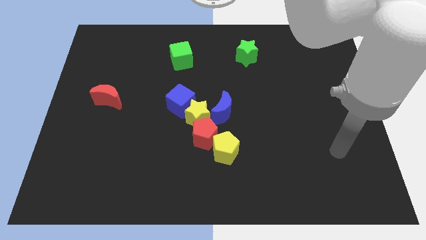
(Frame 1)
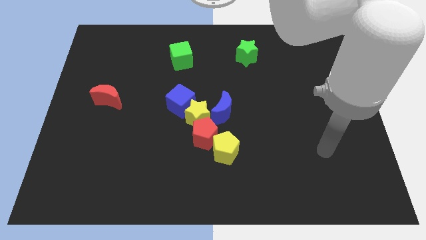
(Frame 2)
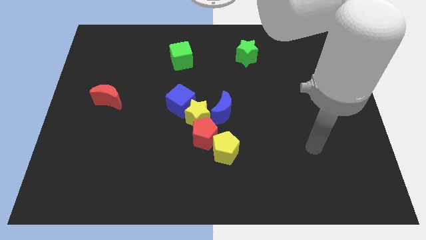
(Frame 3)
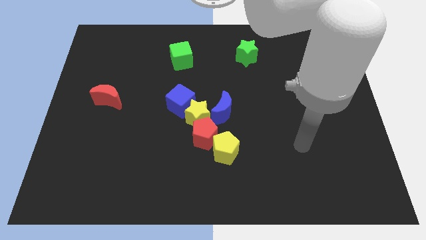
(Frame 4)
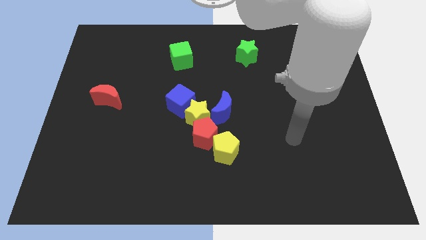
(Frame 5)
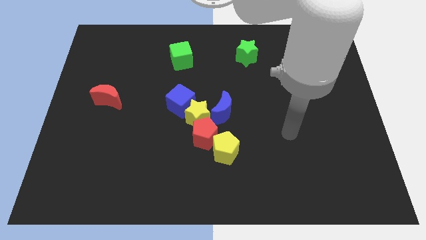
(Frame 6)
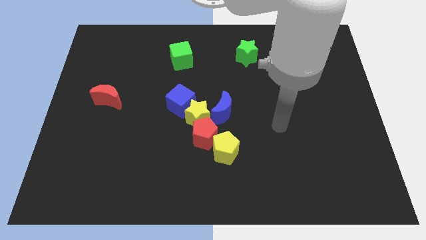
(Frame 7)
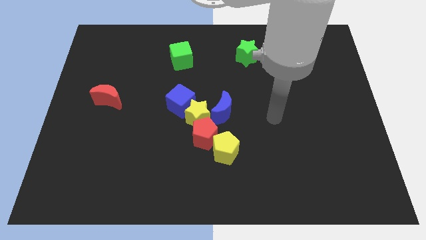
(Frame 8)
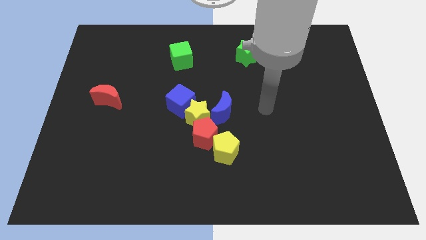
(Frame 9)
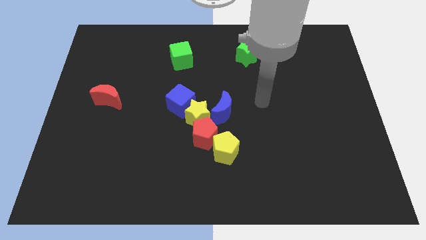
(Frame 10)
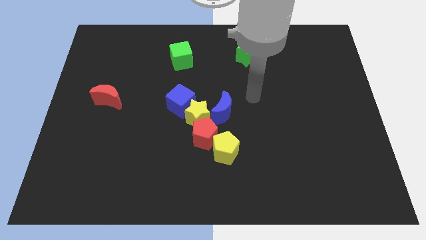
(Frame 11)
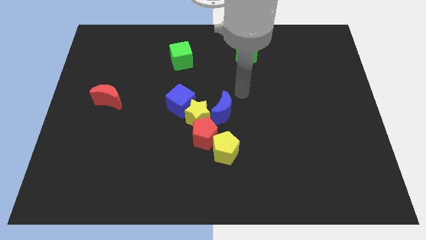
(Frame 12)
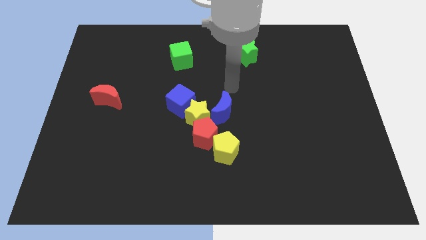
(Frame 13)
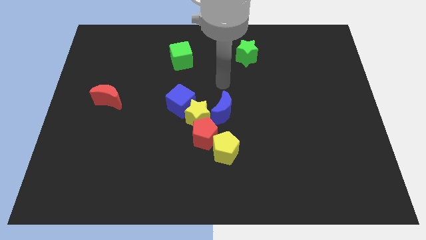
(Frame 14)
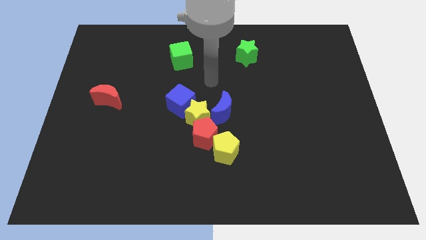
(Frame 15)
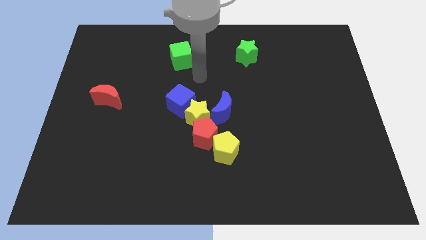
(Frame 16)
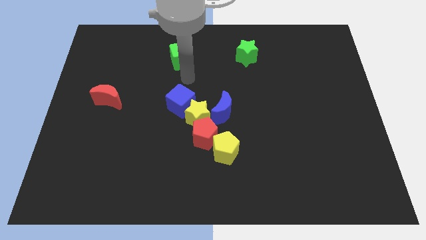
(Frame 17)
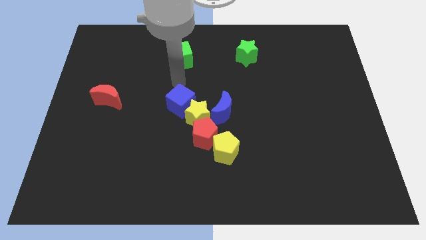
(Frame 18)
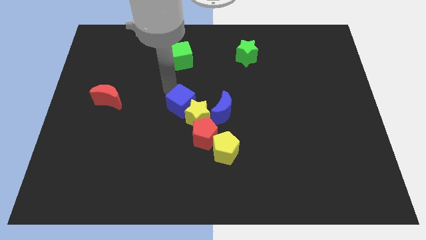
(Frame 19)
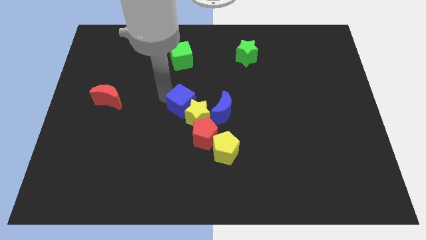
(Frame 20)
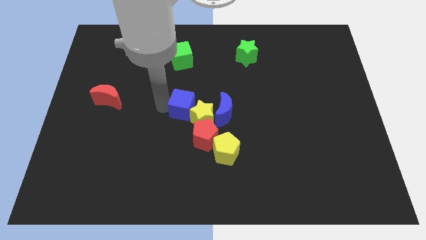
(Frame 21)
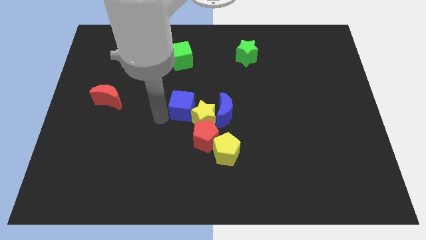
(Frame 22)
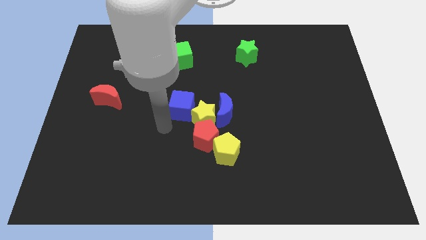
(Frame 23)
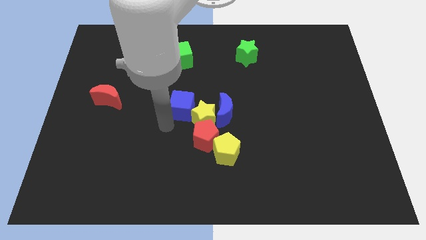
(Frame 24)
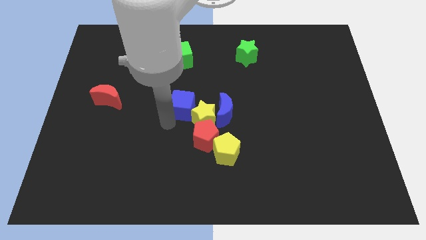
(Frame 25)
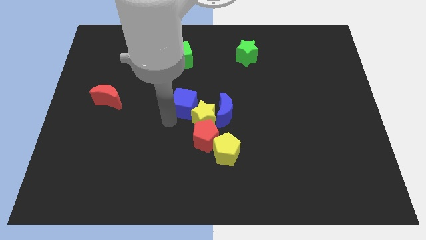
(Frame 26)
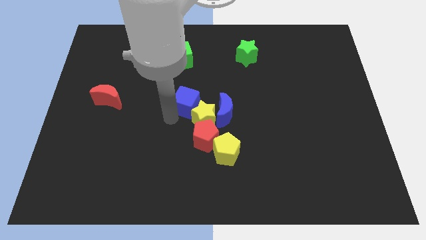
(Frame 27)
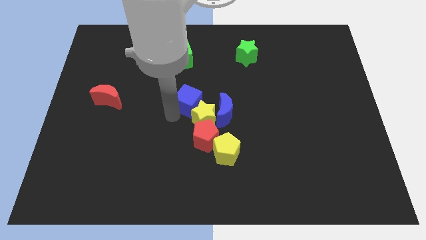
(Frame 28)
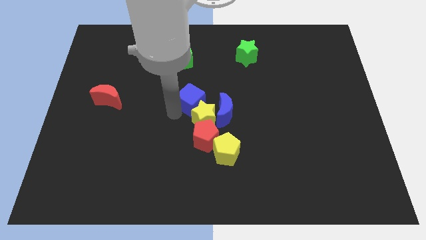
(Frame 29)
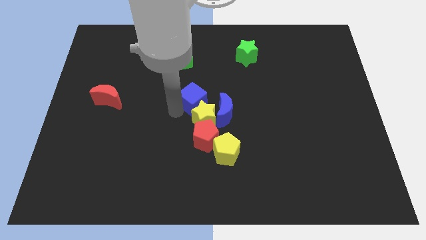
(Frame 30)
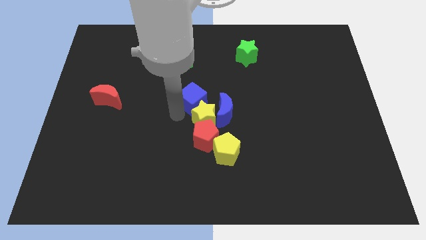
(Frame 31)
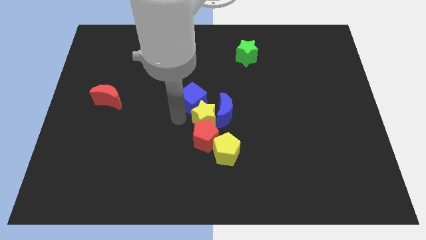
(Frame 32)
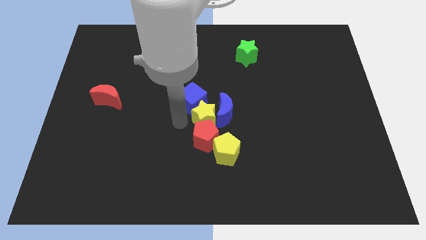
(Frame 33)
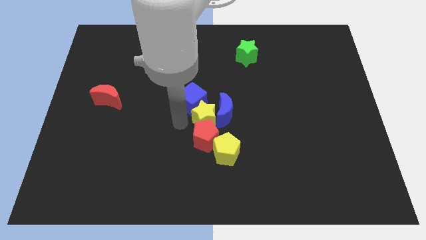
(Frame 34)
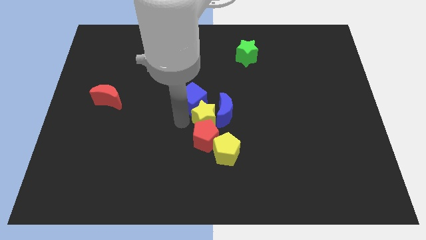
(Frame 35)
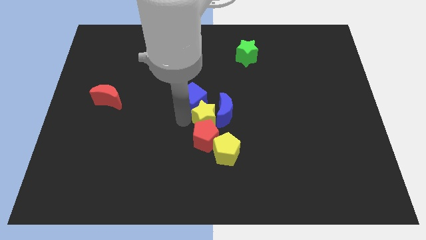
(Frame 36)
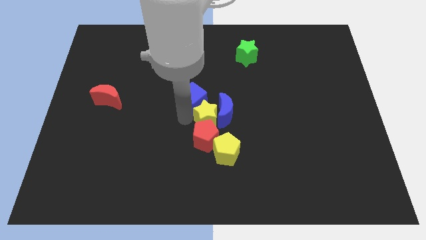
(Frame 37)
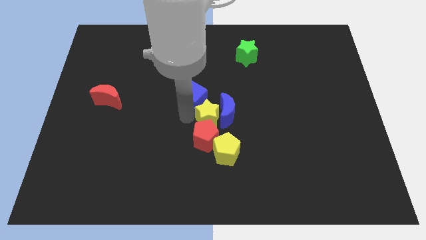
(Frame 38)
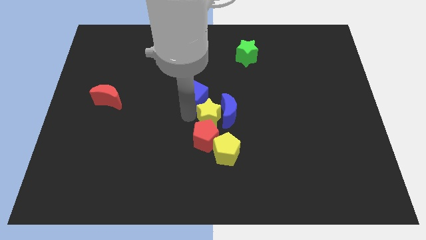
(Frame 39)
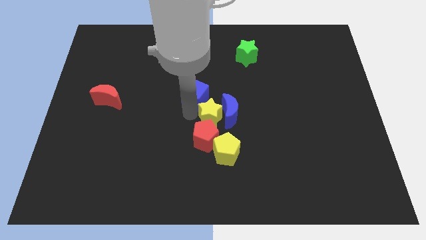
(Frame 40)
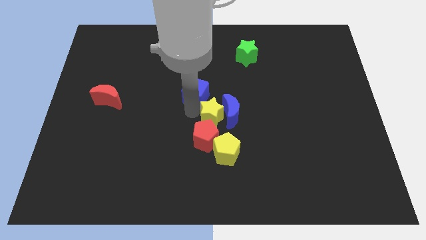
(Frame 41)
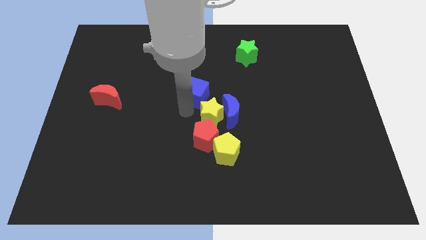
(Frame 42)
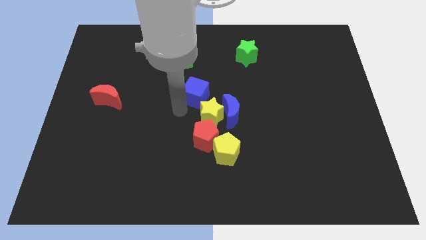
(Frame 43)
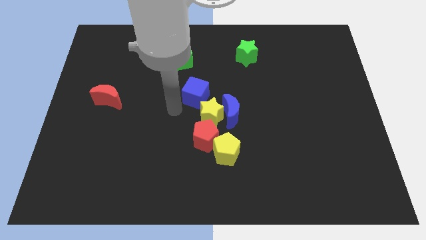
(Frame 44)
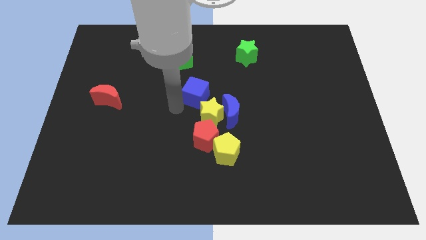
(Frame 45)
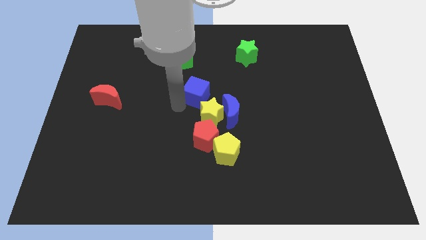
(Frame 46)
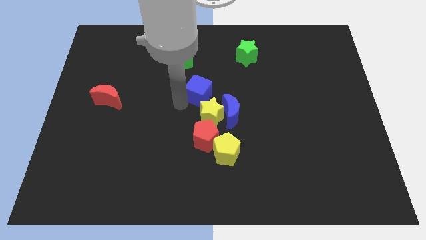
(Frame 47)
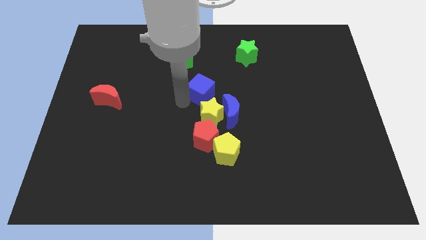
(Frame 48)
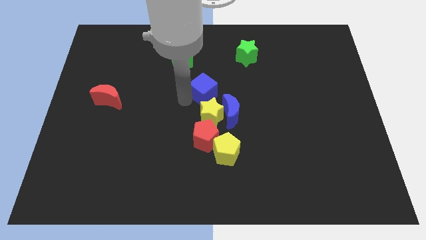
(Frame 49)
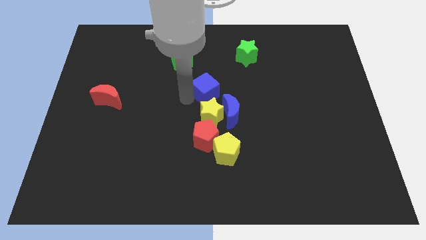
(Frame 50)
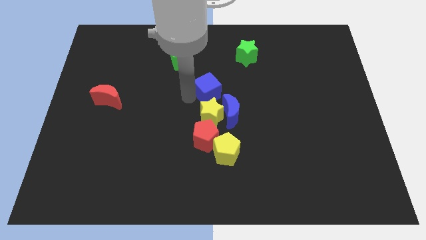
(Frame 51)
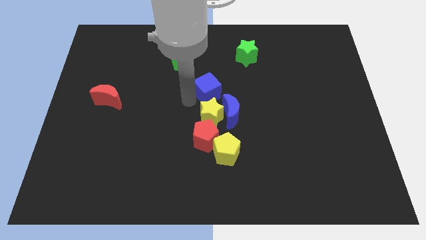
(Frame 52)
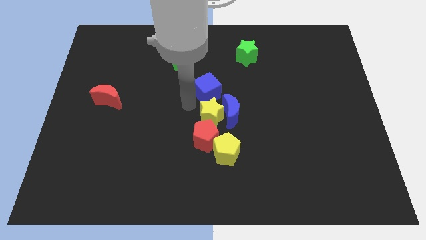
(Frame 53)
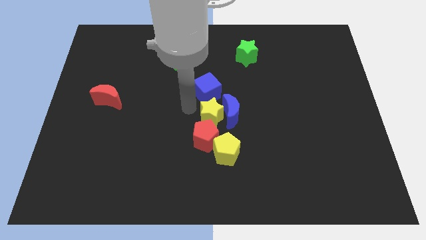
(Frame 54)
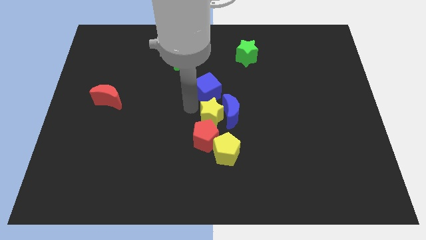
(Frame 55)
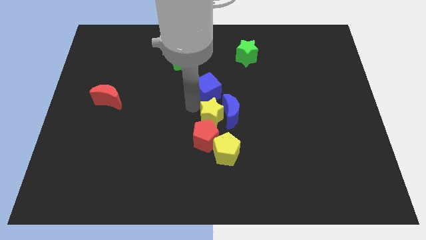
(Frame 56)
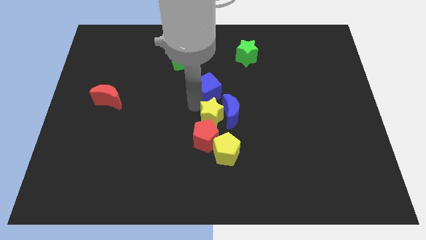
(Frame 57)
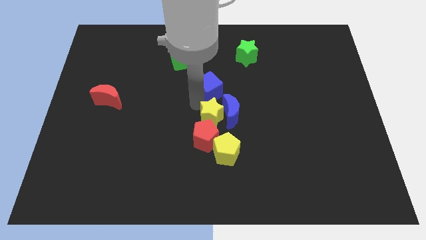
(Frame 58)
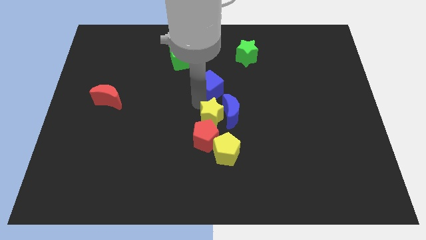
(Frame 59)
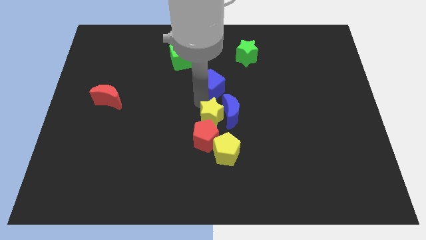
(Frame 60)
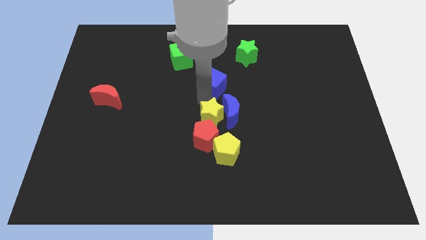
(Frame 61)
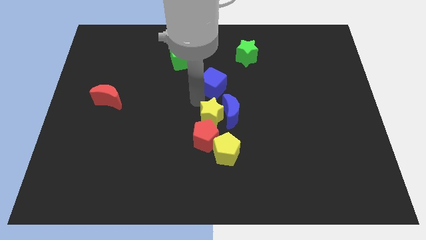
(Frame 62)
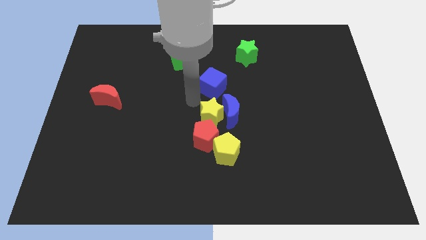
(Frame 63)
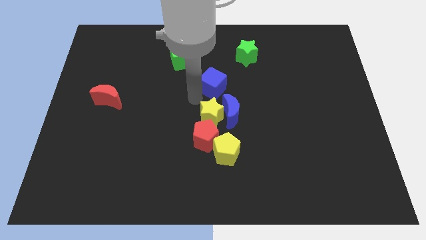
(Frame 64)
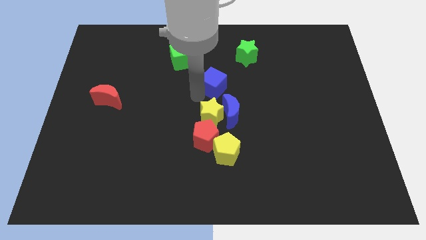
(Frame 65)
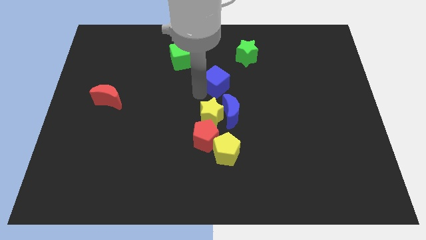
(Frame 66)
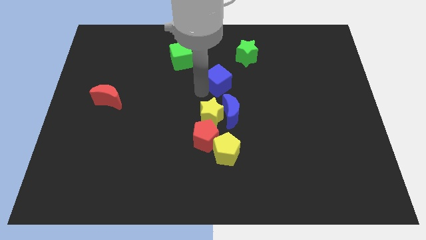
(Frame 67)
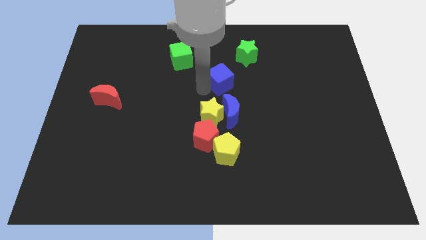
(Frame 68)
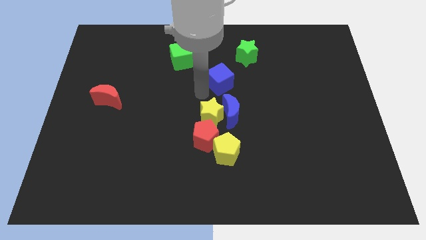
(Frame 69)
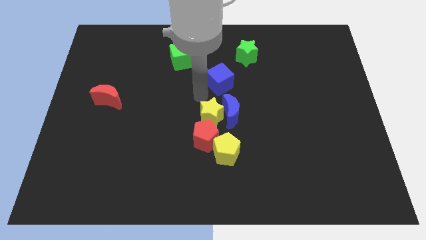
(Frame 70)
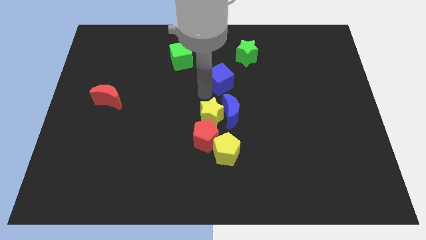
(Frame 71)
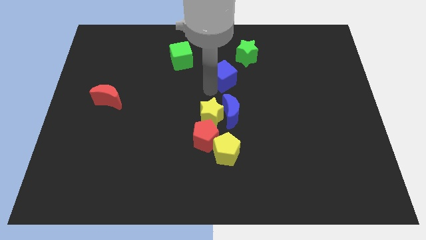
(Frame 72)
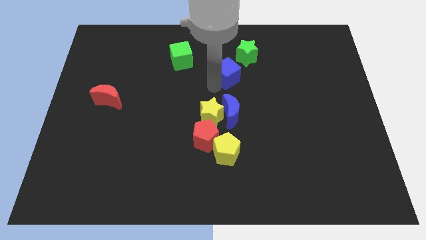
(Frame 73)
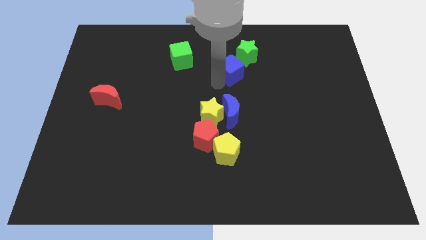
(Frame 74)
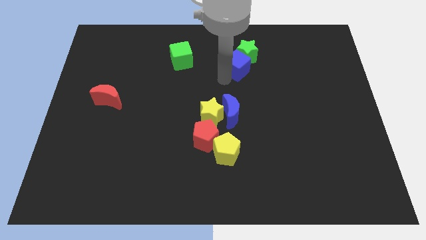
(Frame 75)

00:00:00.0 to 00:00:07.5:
move the blue cube next to the green star
